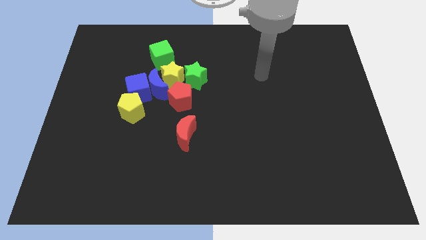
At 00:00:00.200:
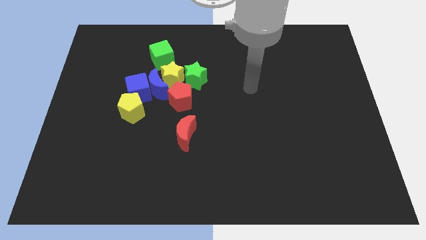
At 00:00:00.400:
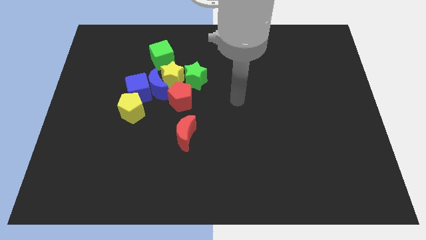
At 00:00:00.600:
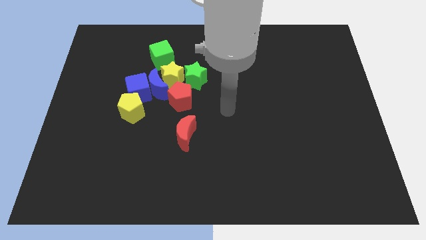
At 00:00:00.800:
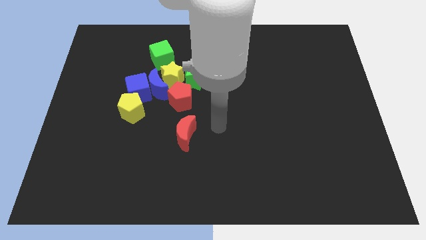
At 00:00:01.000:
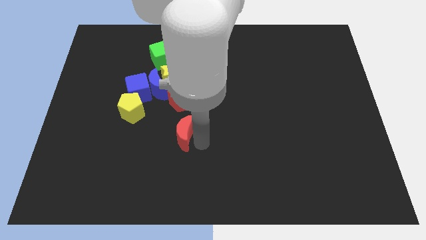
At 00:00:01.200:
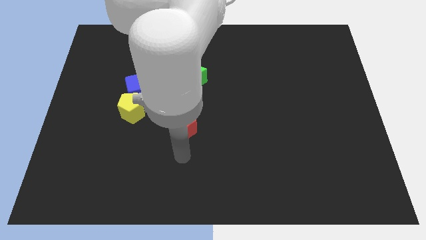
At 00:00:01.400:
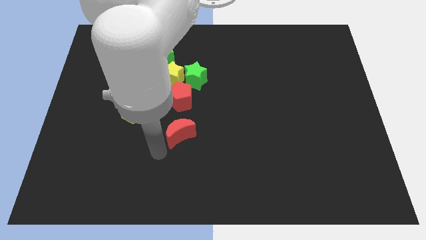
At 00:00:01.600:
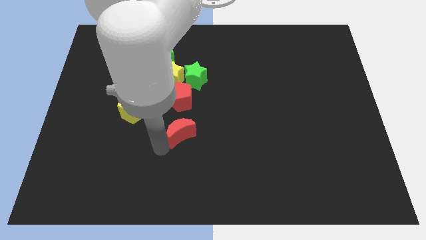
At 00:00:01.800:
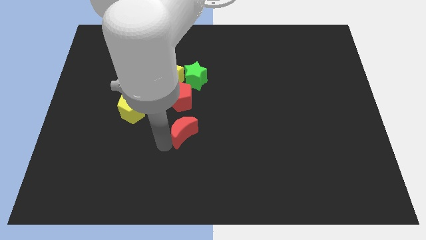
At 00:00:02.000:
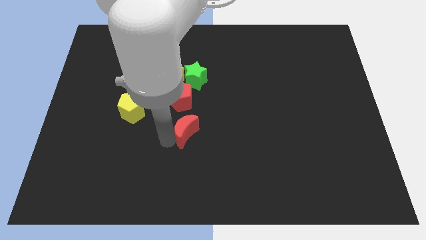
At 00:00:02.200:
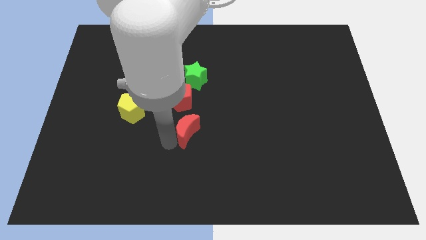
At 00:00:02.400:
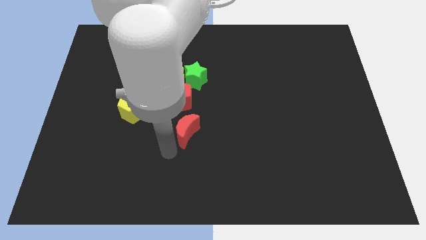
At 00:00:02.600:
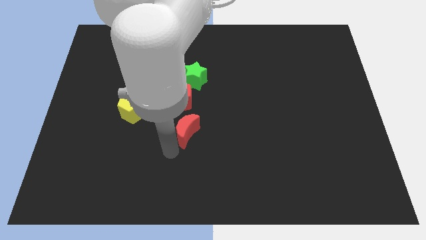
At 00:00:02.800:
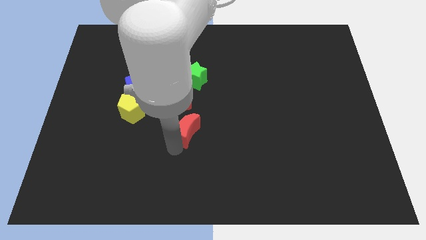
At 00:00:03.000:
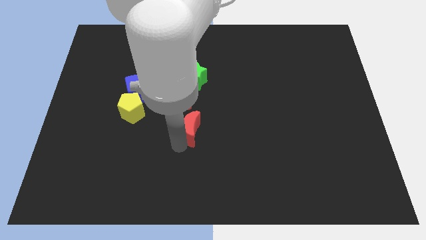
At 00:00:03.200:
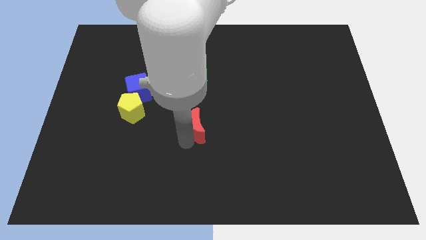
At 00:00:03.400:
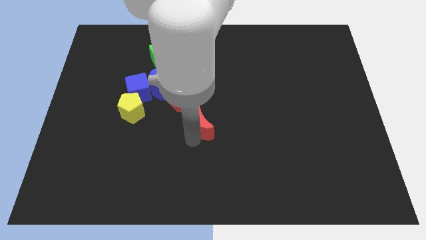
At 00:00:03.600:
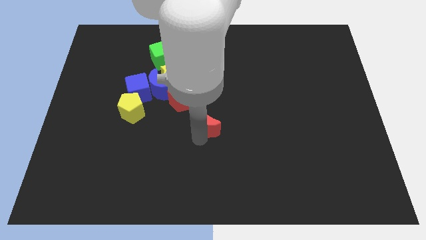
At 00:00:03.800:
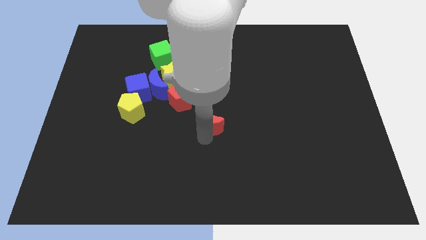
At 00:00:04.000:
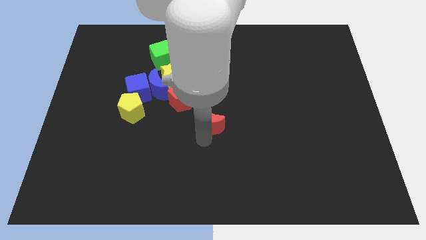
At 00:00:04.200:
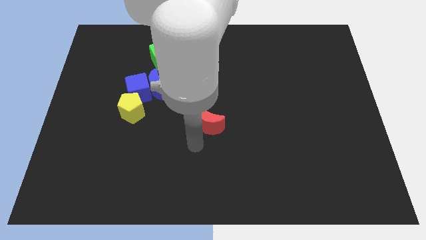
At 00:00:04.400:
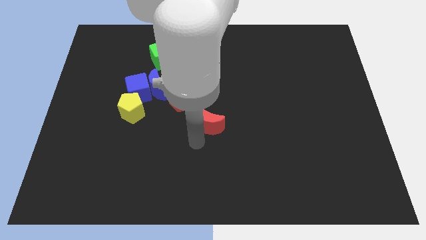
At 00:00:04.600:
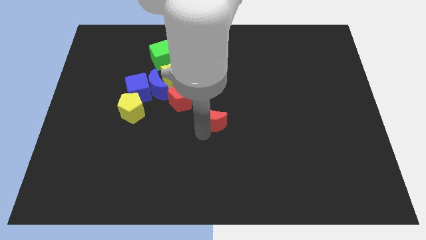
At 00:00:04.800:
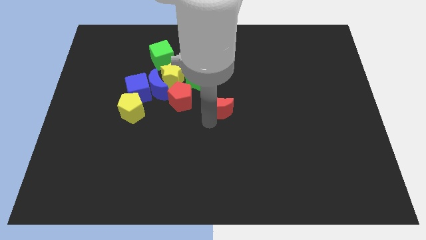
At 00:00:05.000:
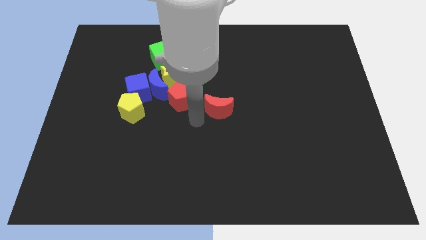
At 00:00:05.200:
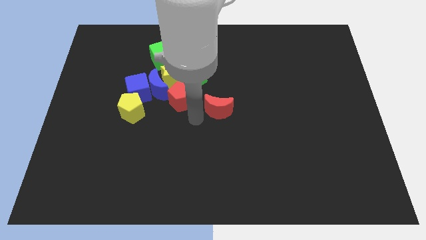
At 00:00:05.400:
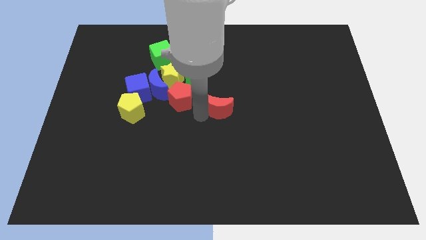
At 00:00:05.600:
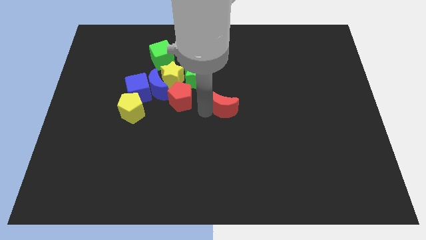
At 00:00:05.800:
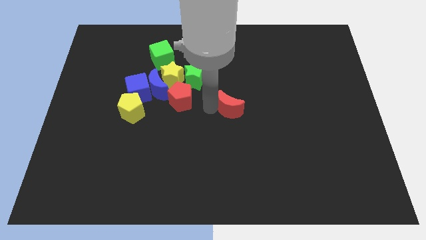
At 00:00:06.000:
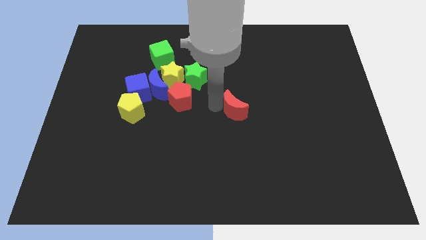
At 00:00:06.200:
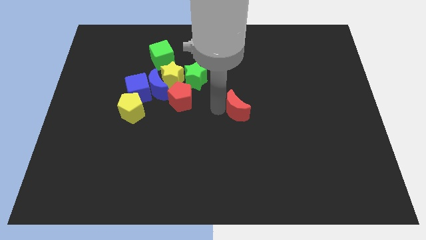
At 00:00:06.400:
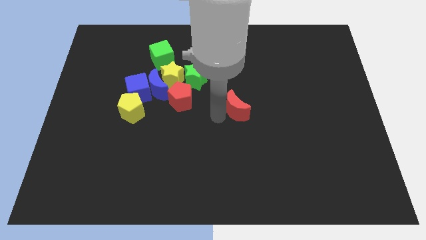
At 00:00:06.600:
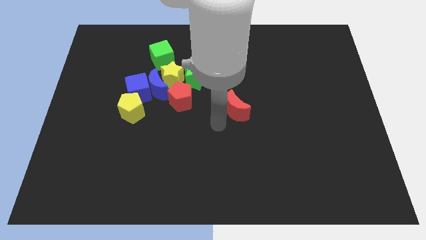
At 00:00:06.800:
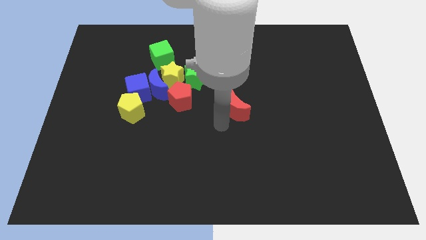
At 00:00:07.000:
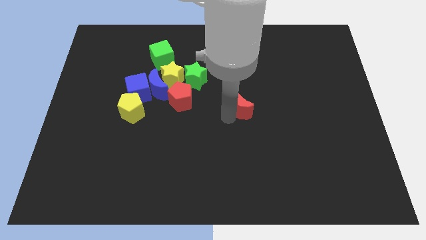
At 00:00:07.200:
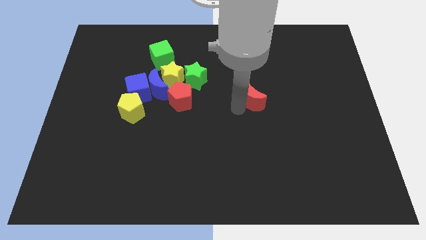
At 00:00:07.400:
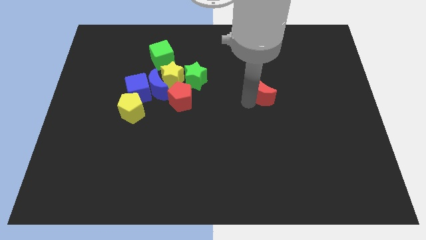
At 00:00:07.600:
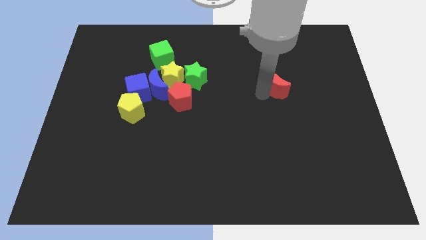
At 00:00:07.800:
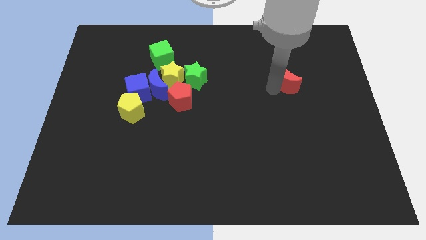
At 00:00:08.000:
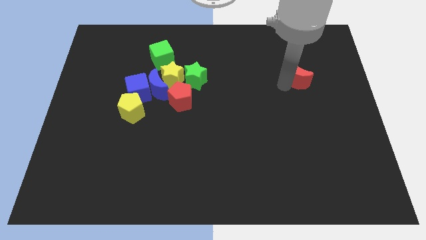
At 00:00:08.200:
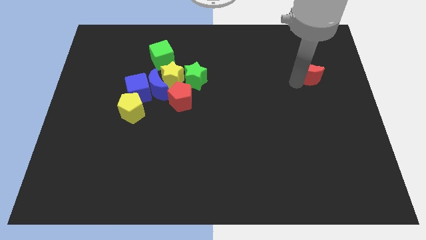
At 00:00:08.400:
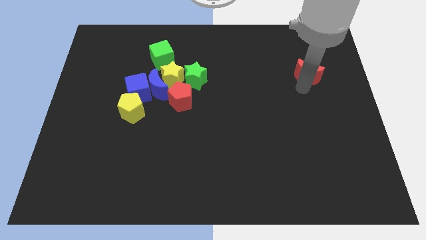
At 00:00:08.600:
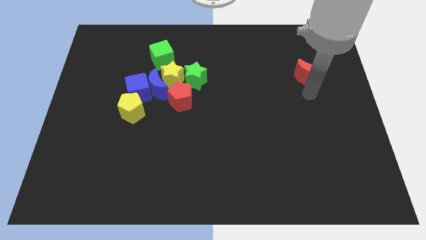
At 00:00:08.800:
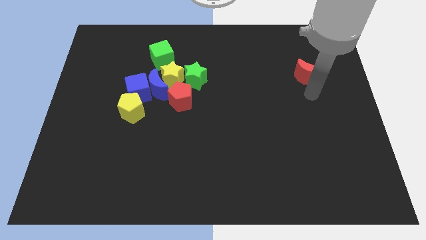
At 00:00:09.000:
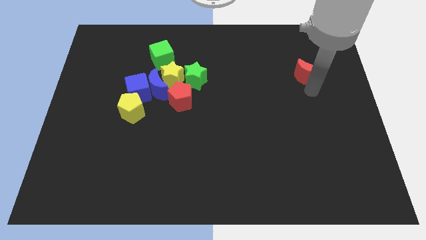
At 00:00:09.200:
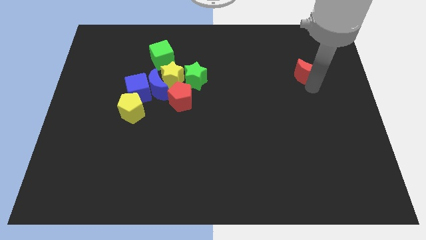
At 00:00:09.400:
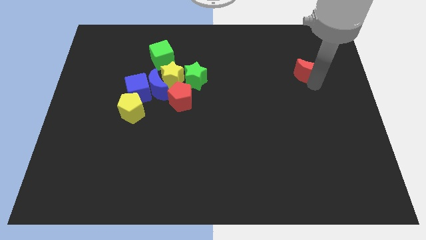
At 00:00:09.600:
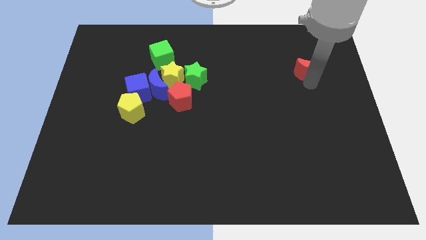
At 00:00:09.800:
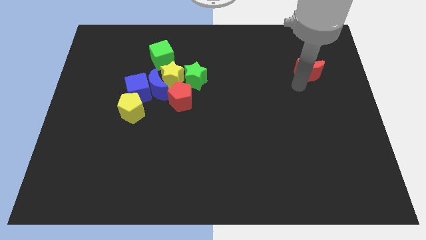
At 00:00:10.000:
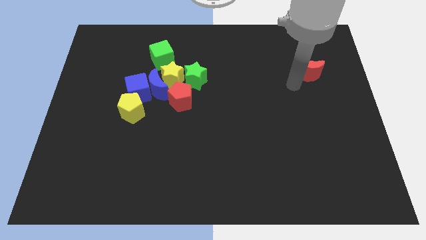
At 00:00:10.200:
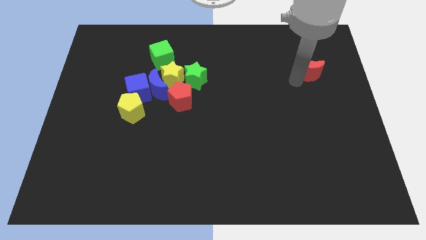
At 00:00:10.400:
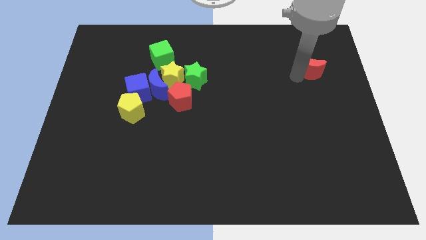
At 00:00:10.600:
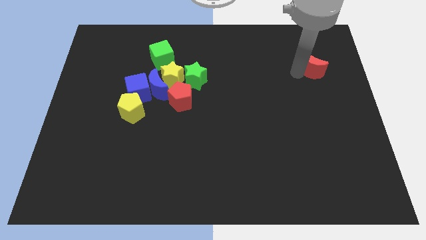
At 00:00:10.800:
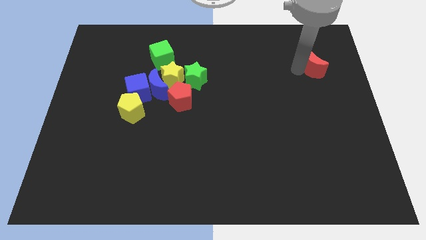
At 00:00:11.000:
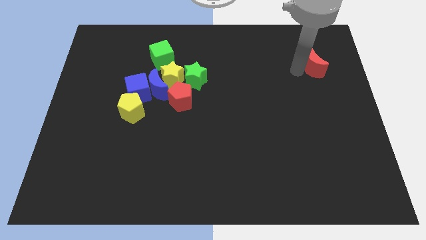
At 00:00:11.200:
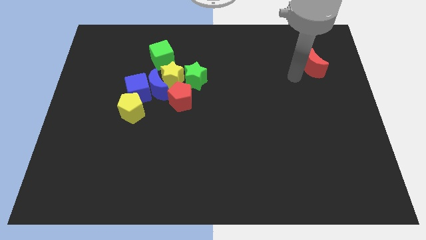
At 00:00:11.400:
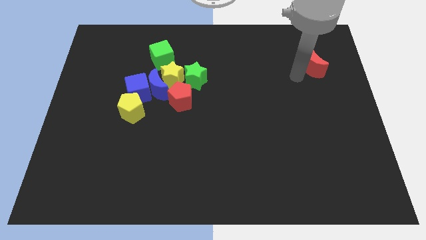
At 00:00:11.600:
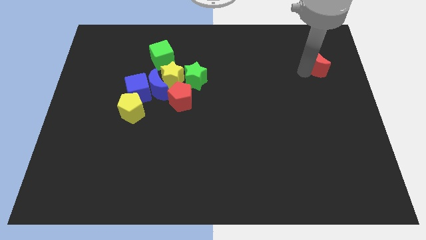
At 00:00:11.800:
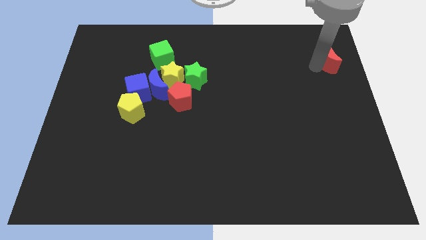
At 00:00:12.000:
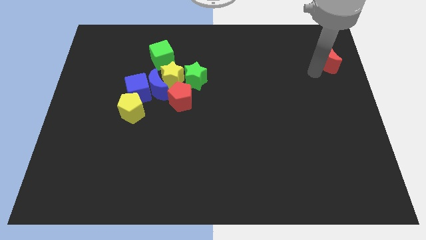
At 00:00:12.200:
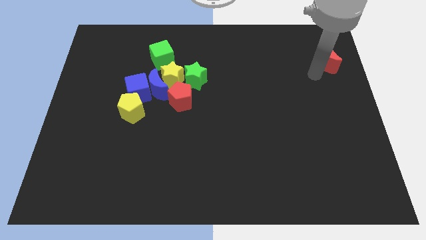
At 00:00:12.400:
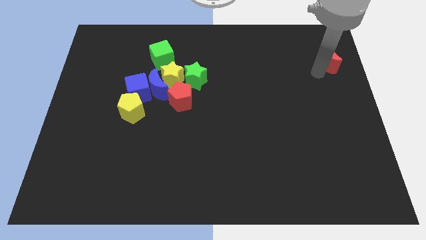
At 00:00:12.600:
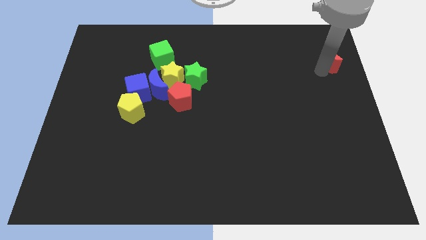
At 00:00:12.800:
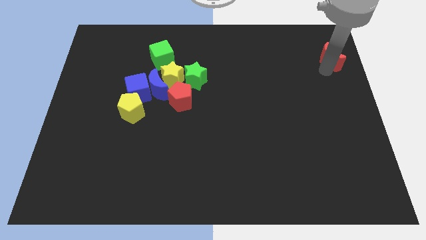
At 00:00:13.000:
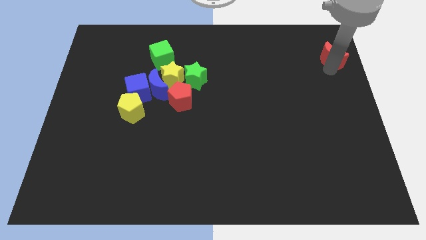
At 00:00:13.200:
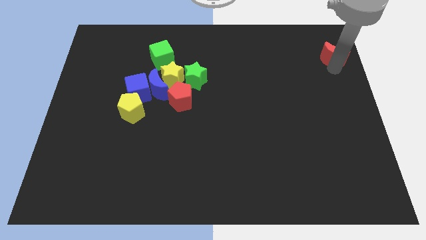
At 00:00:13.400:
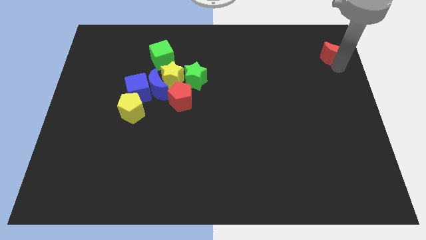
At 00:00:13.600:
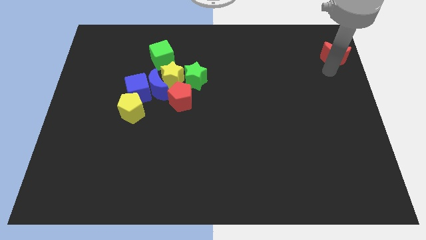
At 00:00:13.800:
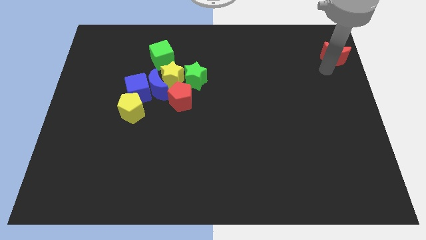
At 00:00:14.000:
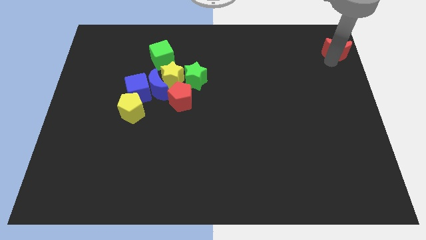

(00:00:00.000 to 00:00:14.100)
move the red moon to the top right corner
